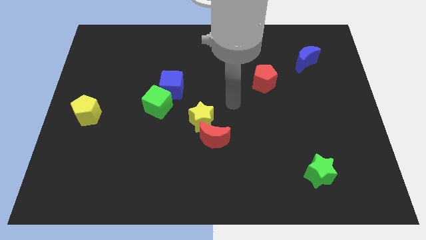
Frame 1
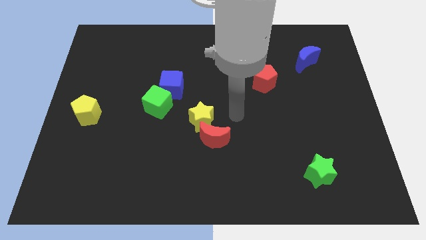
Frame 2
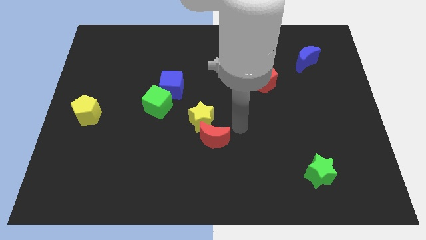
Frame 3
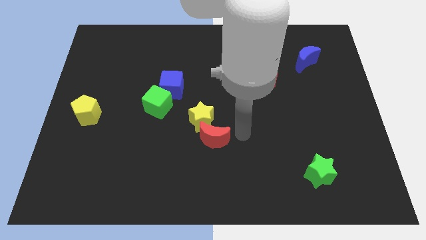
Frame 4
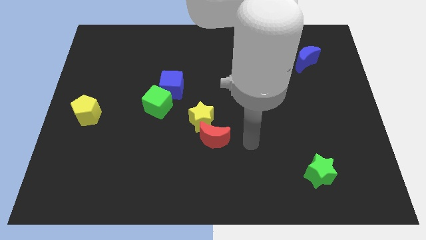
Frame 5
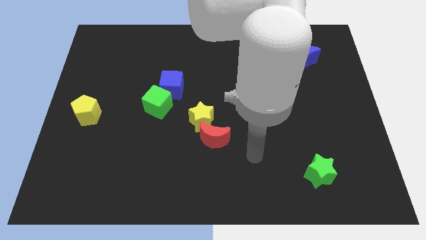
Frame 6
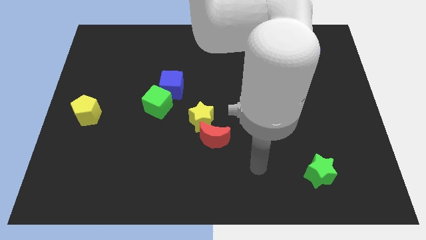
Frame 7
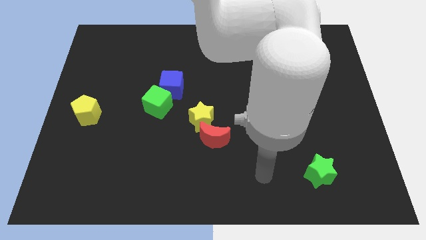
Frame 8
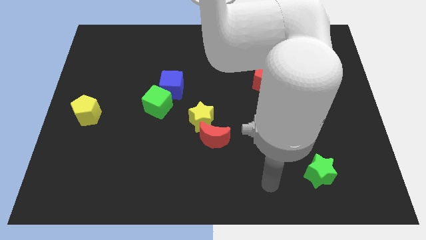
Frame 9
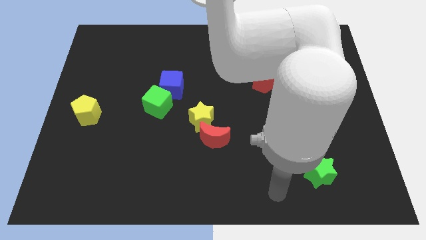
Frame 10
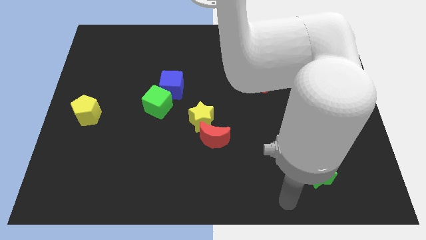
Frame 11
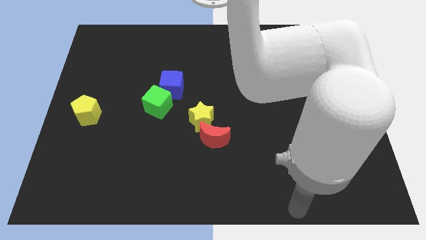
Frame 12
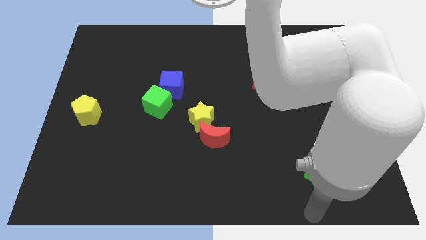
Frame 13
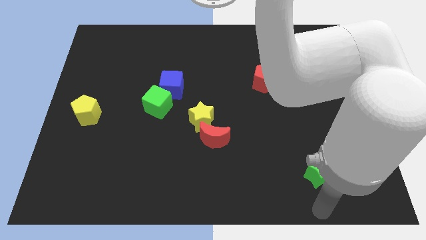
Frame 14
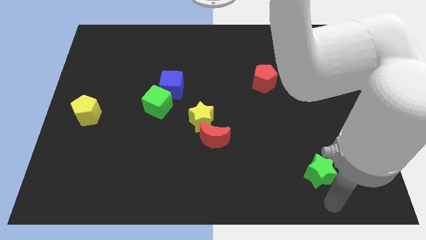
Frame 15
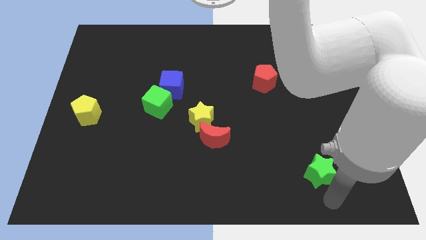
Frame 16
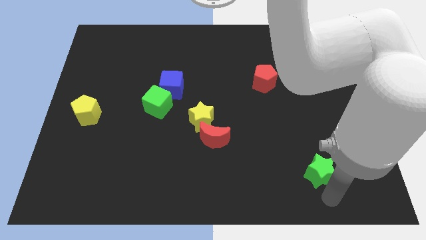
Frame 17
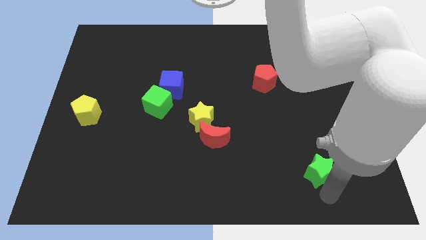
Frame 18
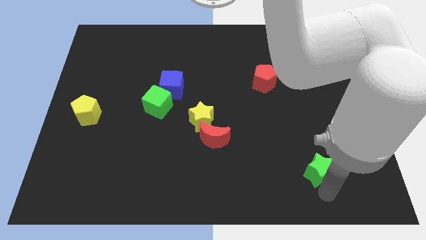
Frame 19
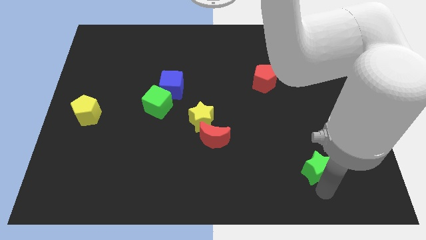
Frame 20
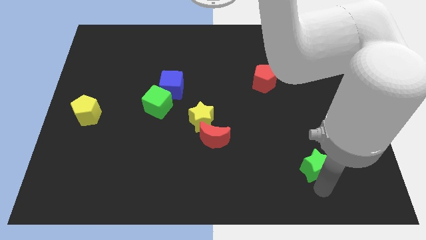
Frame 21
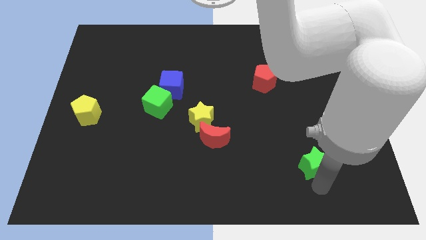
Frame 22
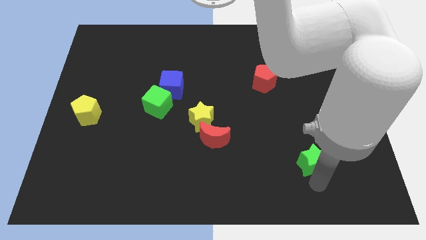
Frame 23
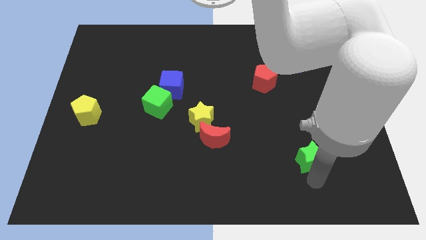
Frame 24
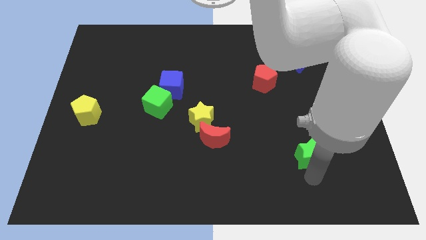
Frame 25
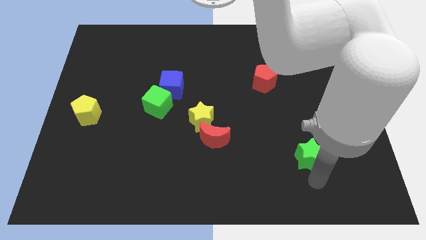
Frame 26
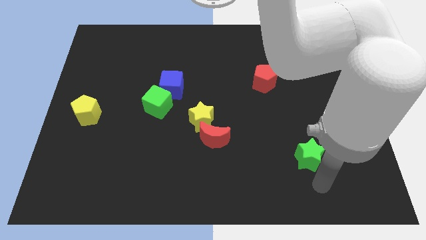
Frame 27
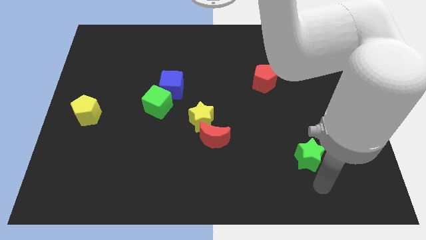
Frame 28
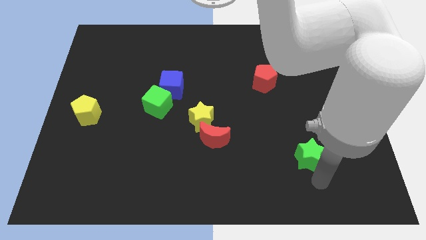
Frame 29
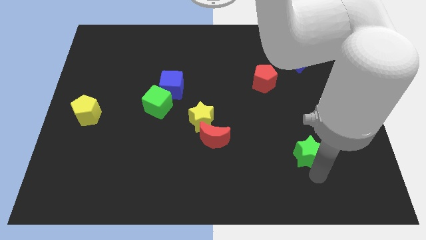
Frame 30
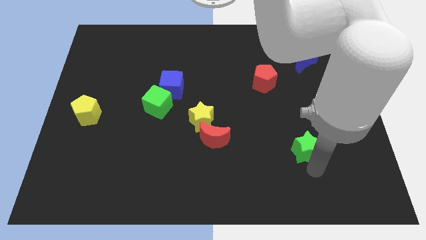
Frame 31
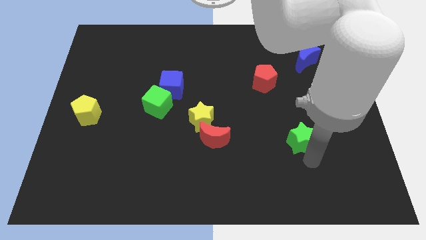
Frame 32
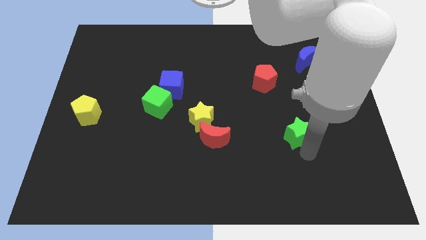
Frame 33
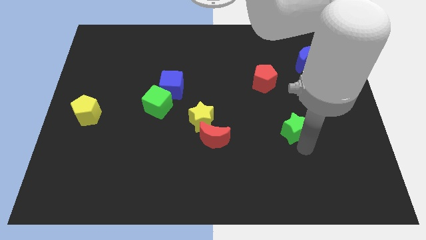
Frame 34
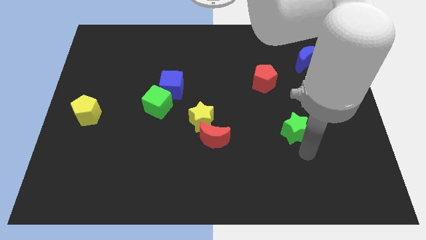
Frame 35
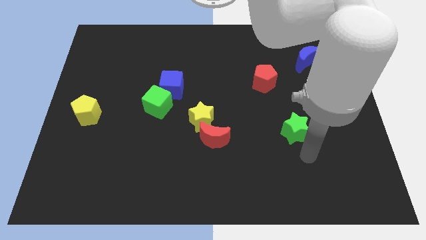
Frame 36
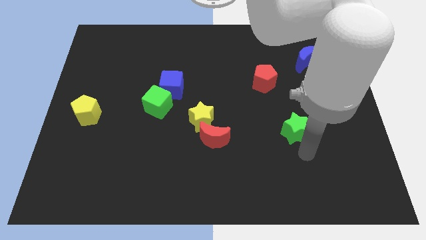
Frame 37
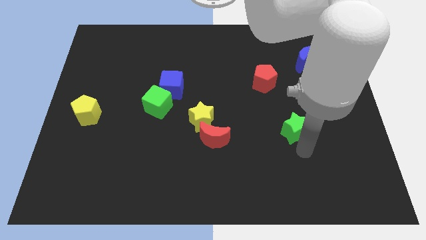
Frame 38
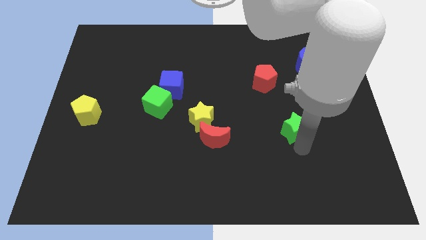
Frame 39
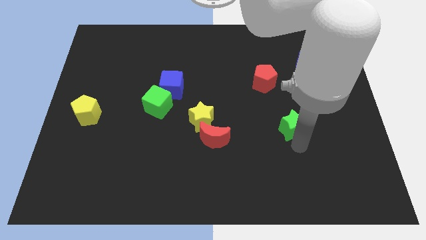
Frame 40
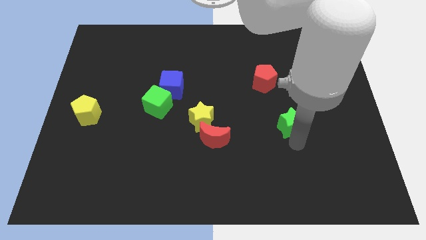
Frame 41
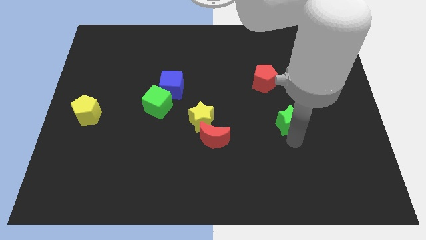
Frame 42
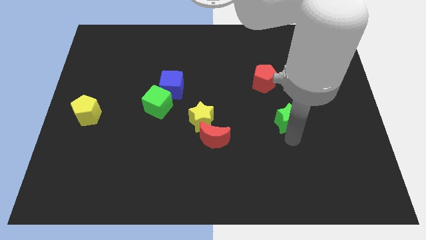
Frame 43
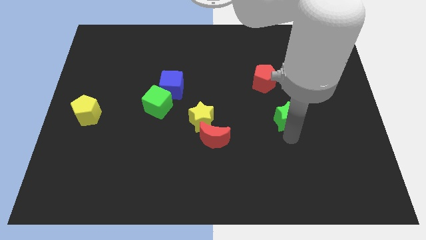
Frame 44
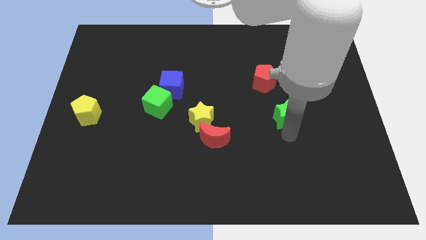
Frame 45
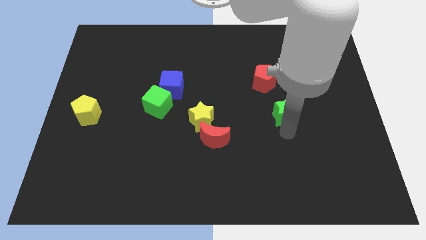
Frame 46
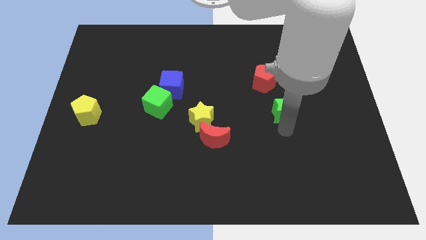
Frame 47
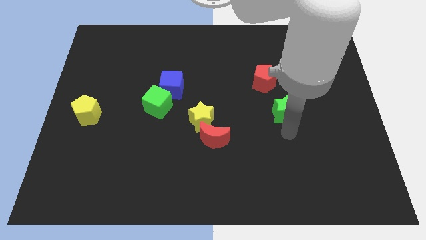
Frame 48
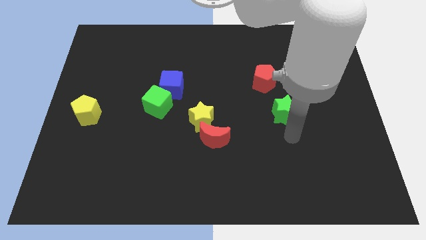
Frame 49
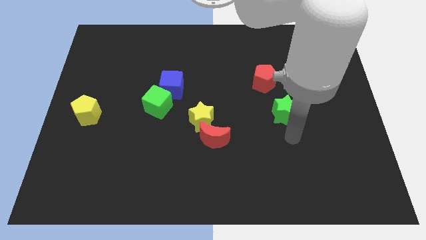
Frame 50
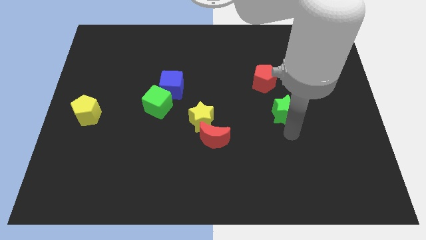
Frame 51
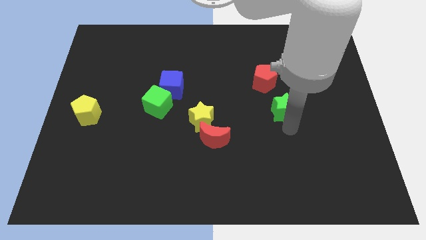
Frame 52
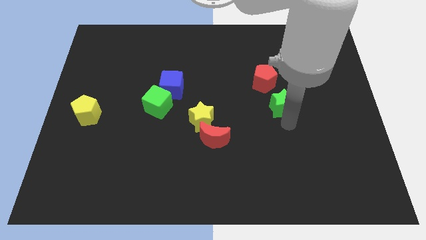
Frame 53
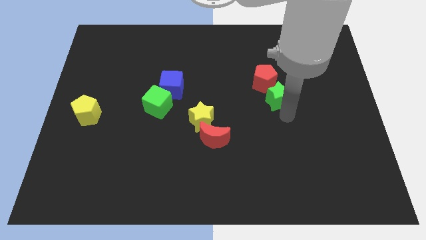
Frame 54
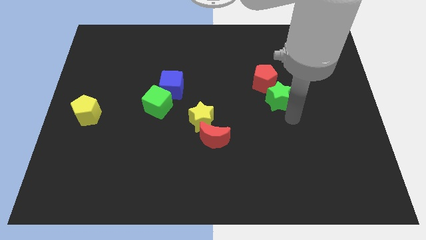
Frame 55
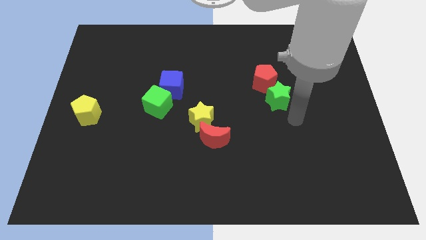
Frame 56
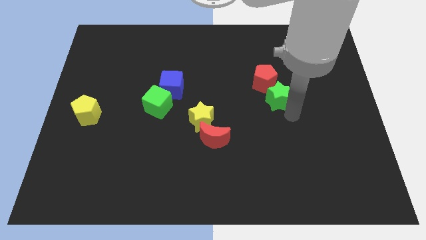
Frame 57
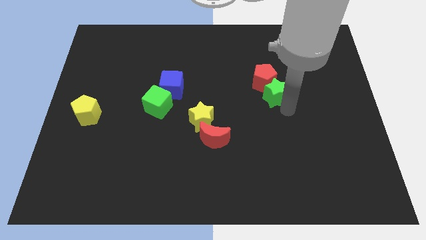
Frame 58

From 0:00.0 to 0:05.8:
move the green star to the red pentagon

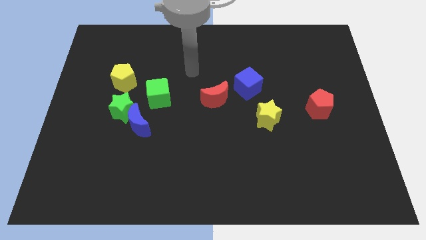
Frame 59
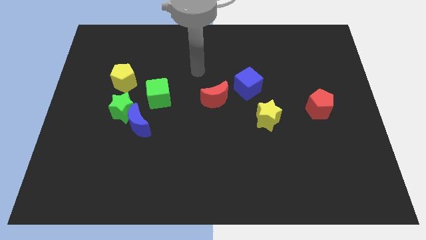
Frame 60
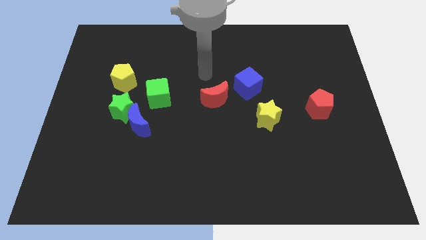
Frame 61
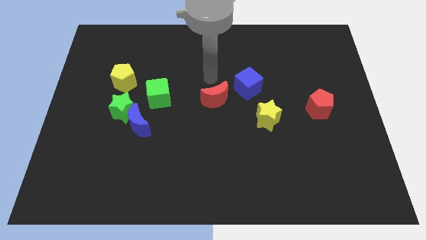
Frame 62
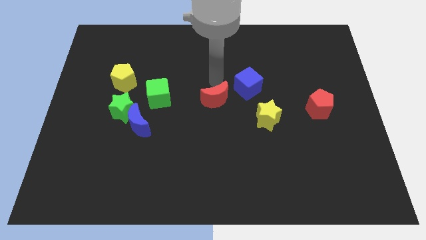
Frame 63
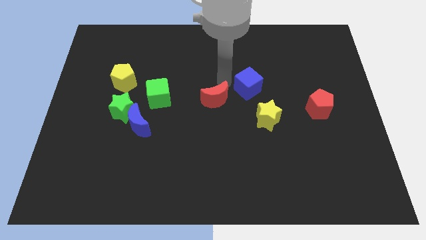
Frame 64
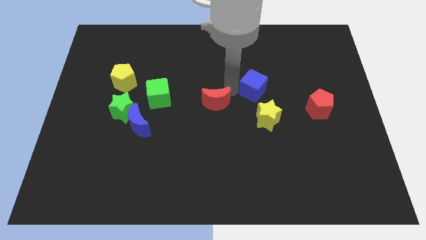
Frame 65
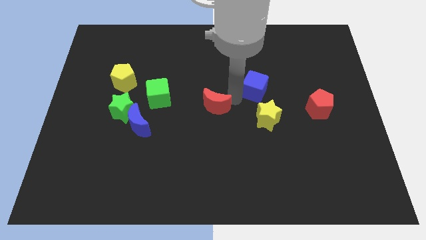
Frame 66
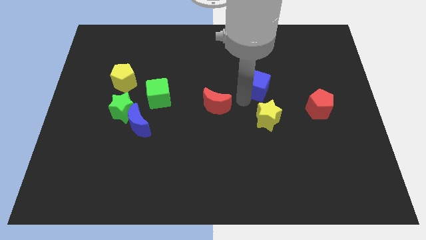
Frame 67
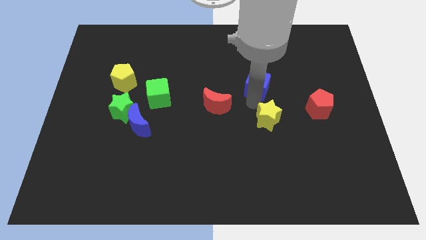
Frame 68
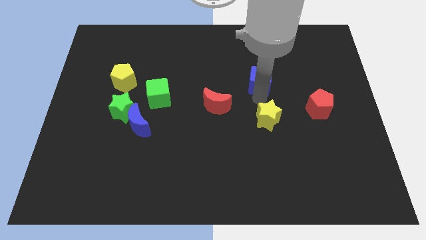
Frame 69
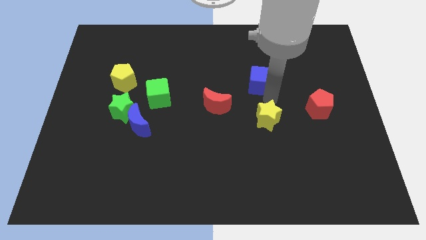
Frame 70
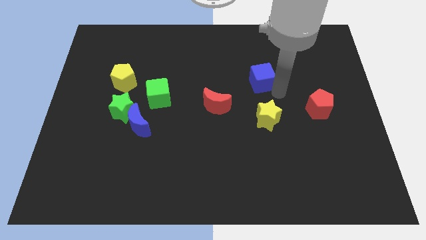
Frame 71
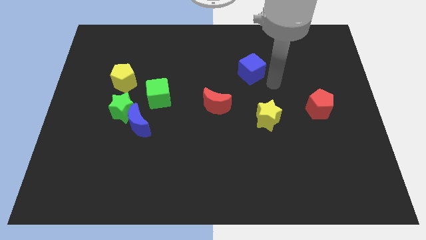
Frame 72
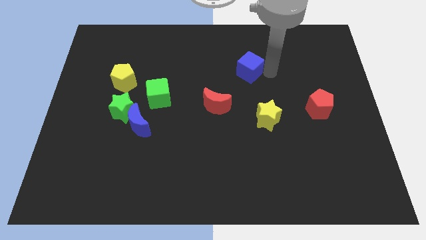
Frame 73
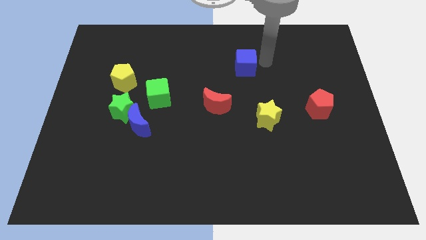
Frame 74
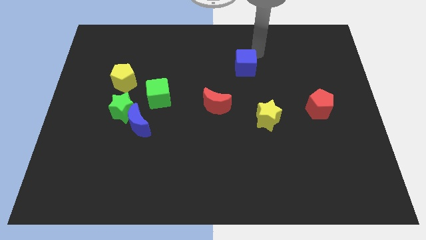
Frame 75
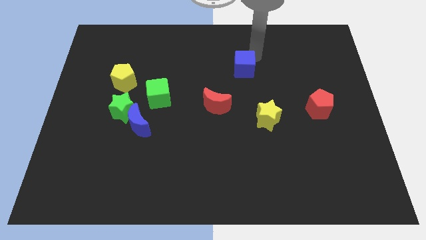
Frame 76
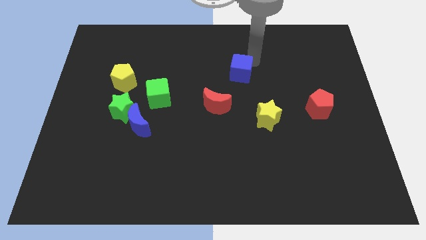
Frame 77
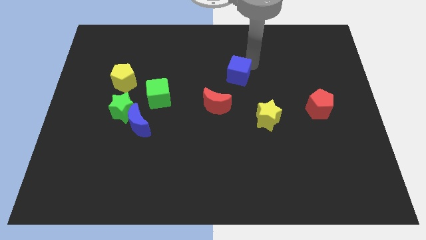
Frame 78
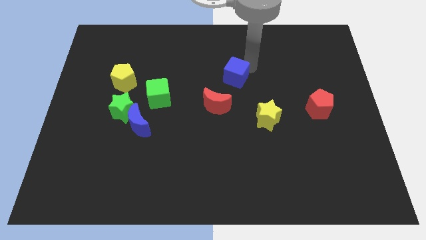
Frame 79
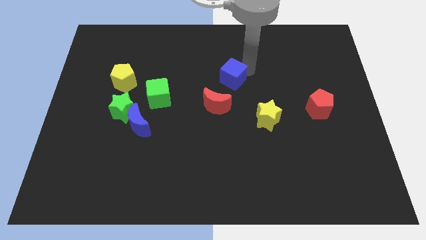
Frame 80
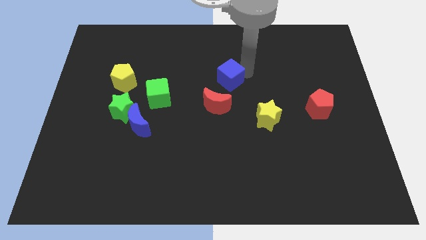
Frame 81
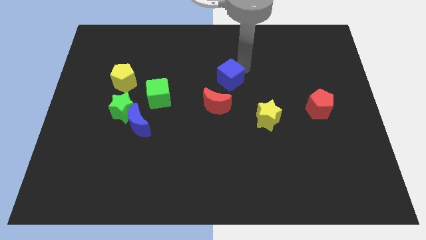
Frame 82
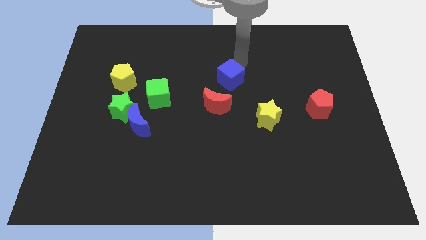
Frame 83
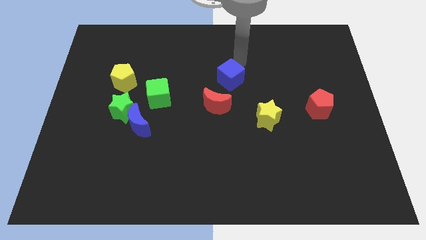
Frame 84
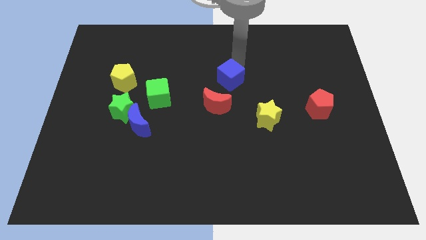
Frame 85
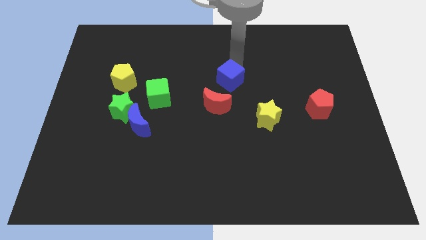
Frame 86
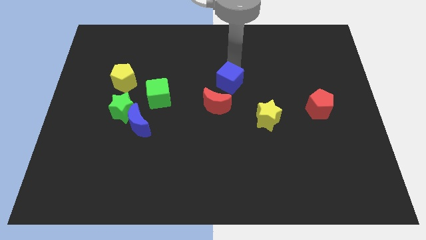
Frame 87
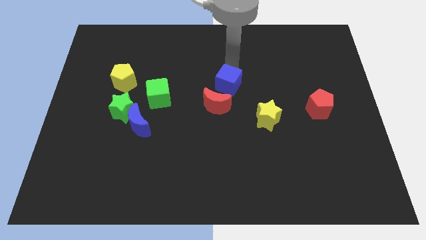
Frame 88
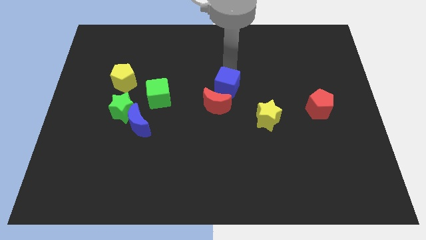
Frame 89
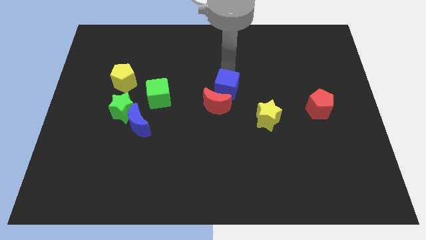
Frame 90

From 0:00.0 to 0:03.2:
slide the blue cube towards the red moon
